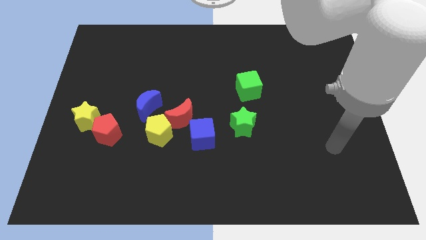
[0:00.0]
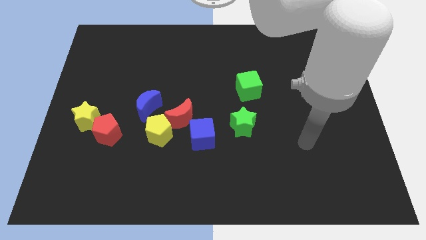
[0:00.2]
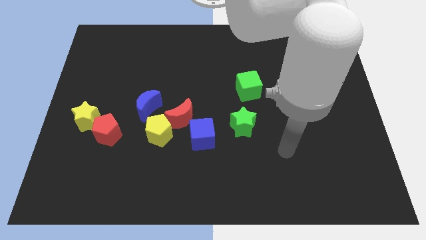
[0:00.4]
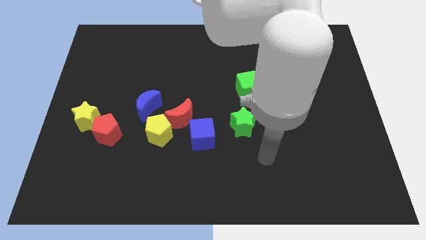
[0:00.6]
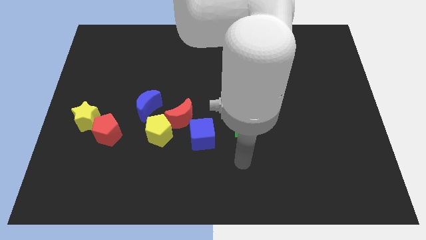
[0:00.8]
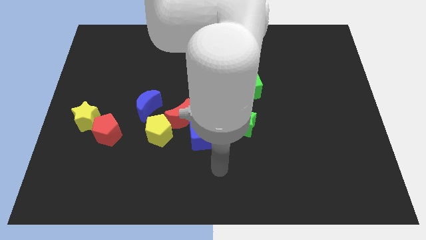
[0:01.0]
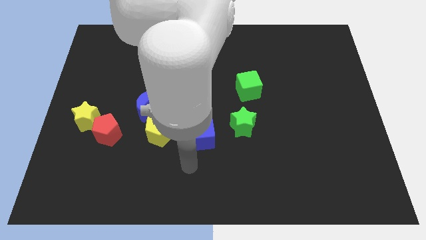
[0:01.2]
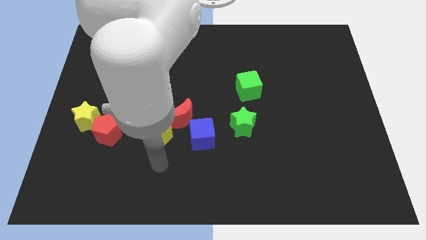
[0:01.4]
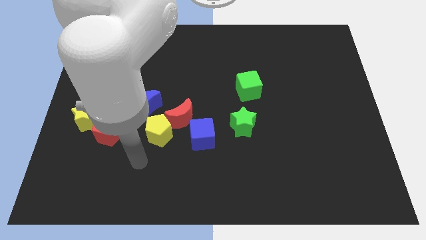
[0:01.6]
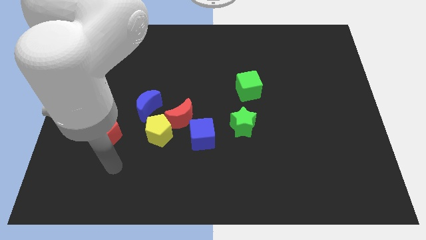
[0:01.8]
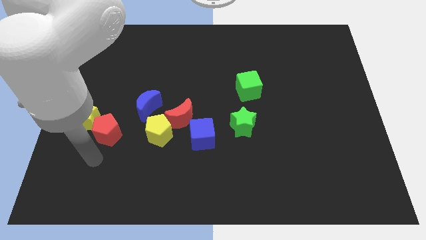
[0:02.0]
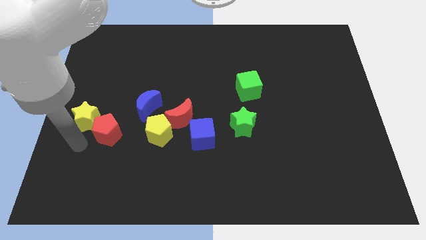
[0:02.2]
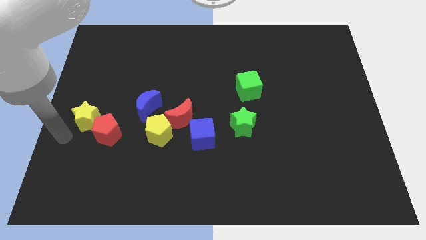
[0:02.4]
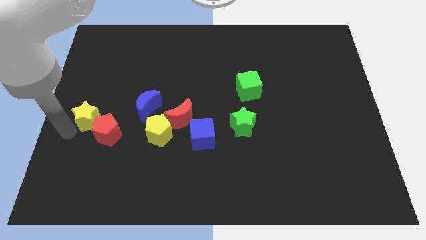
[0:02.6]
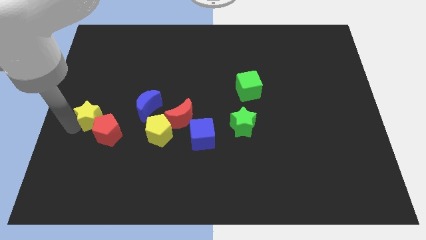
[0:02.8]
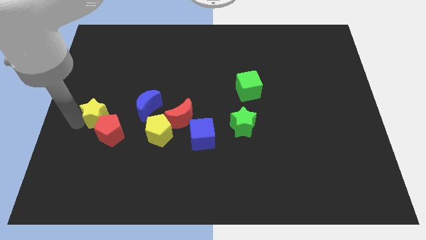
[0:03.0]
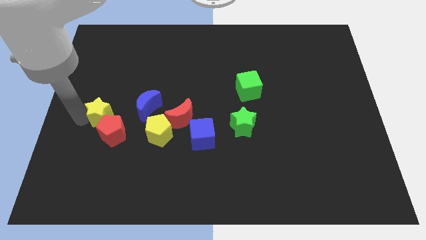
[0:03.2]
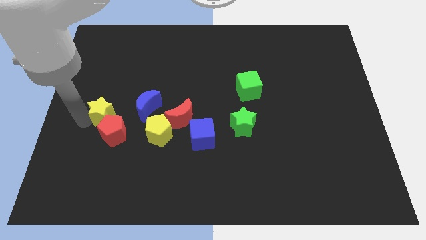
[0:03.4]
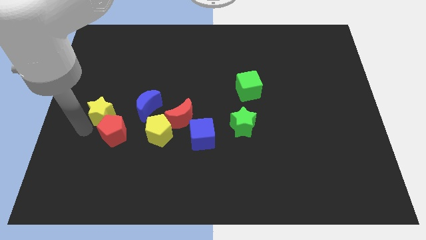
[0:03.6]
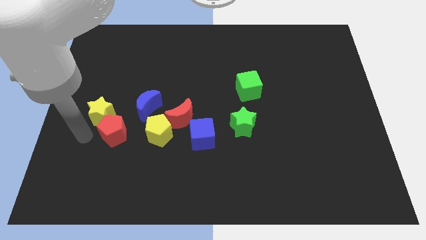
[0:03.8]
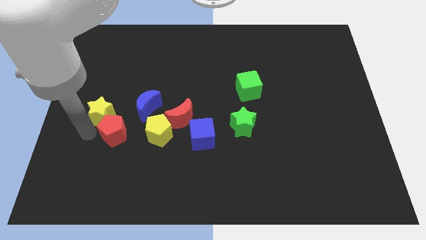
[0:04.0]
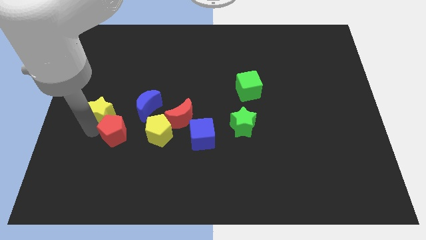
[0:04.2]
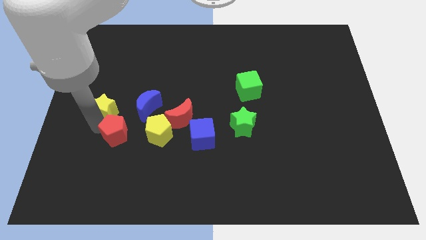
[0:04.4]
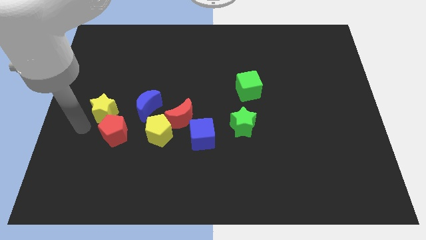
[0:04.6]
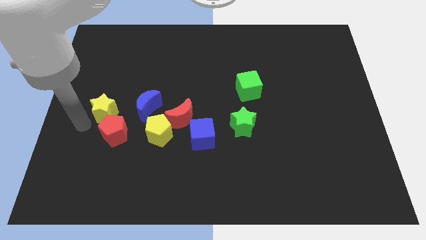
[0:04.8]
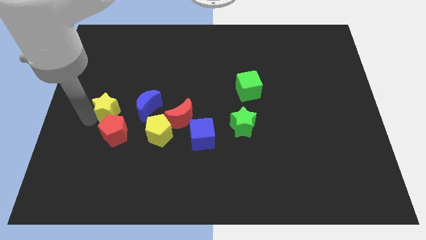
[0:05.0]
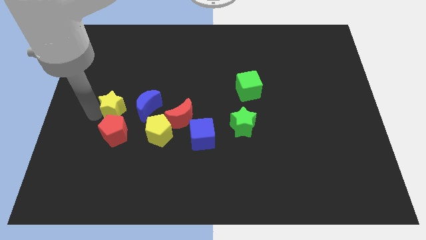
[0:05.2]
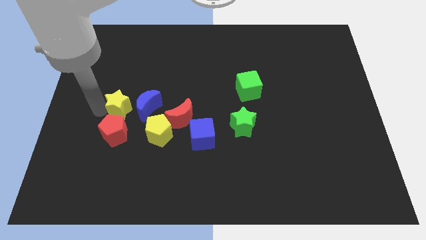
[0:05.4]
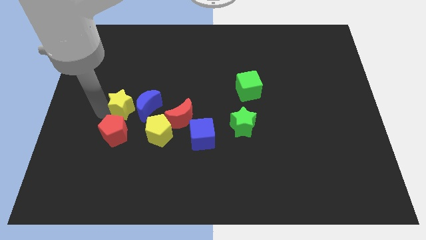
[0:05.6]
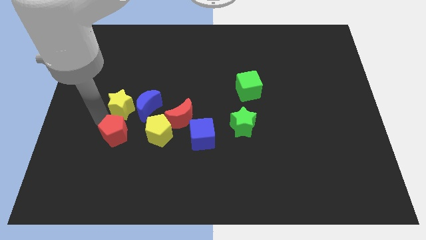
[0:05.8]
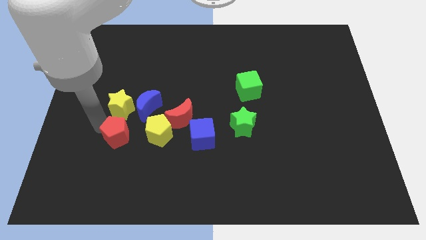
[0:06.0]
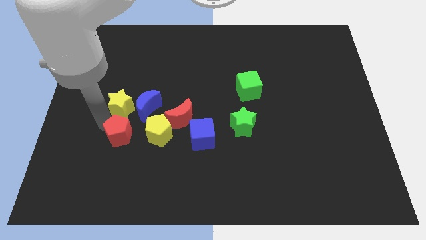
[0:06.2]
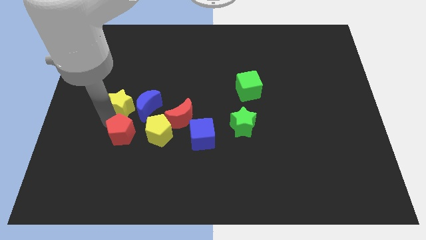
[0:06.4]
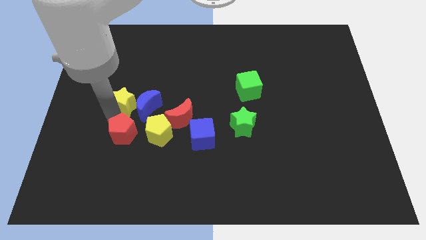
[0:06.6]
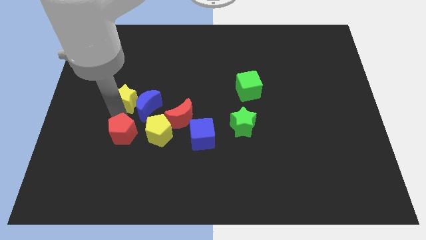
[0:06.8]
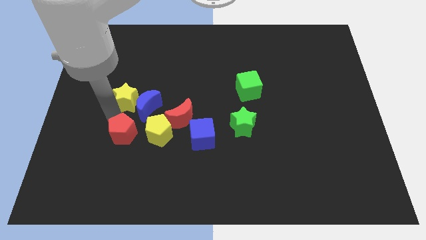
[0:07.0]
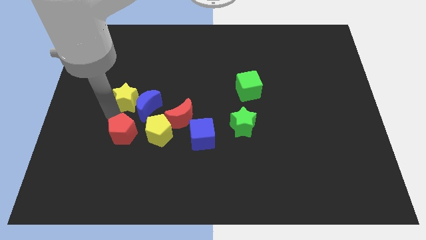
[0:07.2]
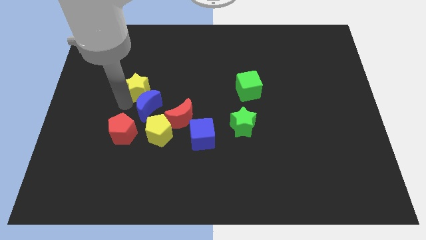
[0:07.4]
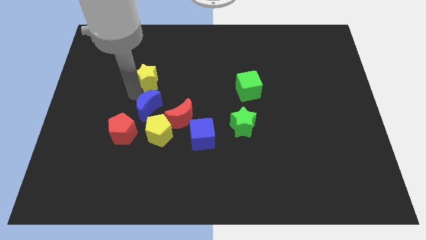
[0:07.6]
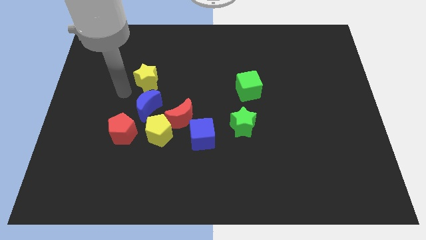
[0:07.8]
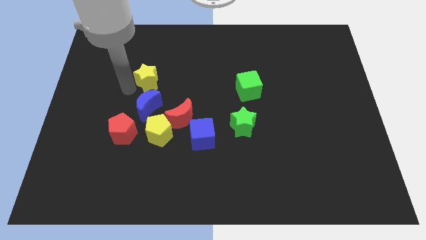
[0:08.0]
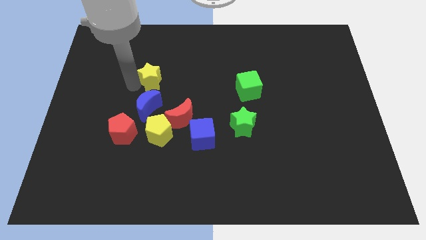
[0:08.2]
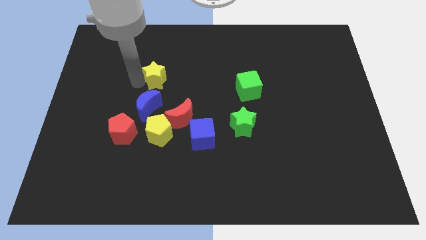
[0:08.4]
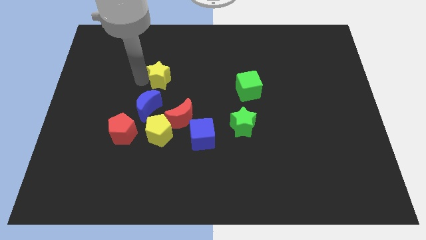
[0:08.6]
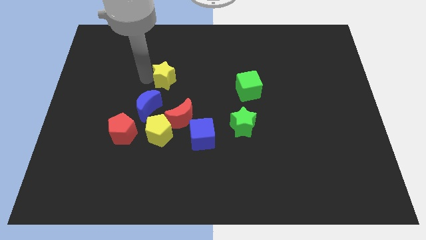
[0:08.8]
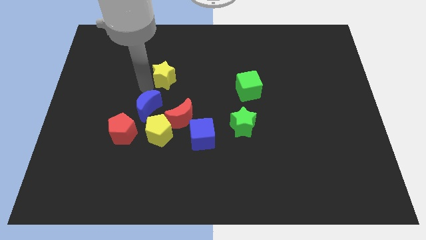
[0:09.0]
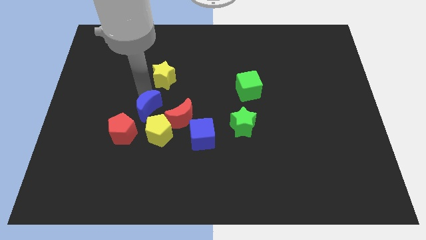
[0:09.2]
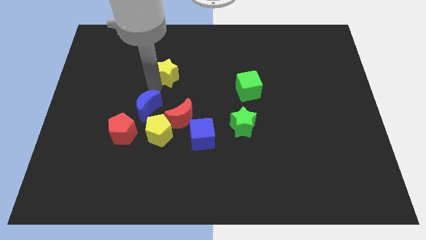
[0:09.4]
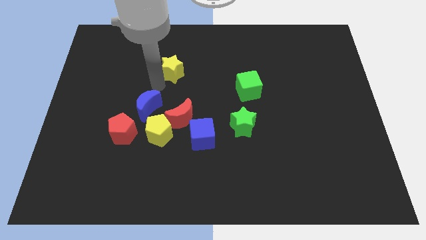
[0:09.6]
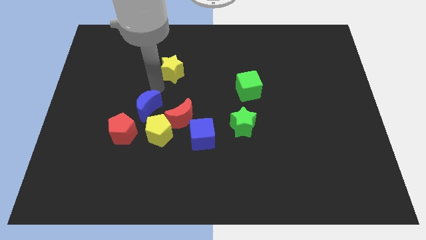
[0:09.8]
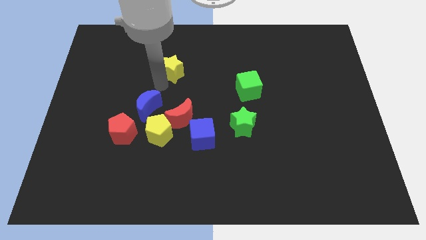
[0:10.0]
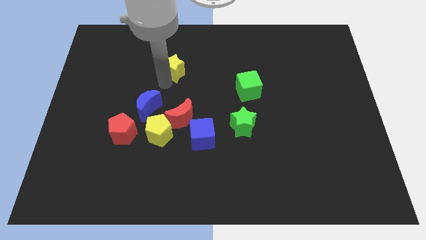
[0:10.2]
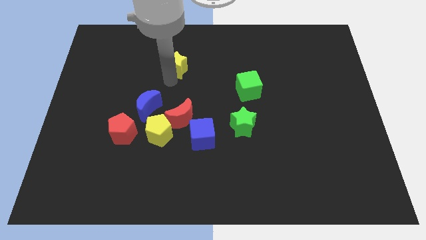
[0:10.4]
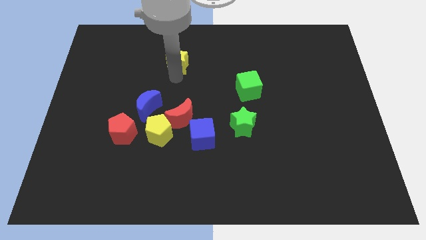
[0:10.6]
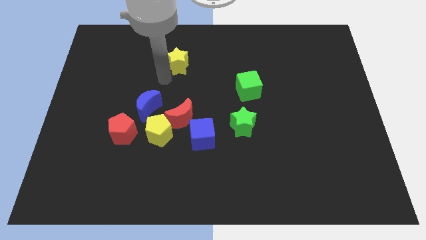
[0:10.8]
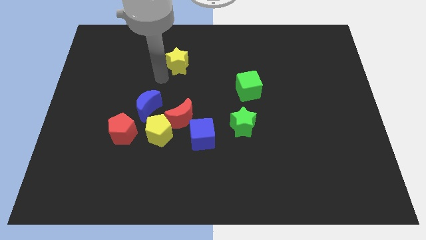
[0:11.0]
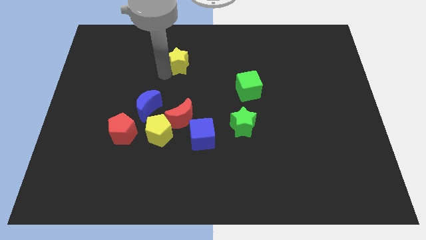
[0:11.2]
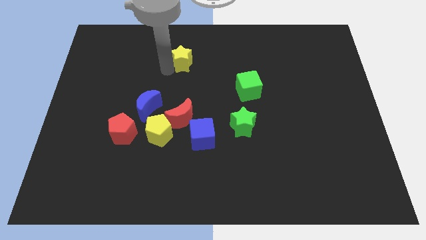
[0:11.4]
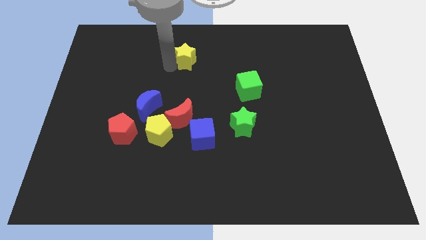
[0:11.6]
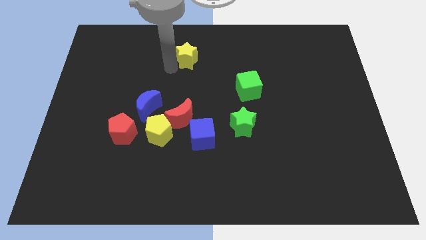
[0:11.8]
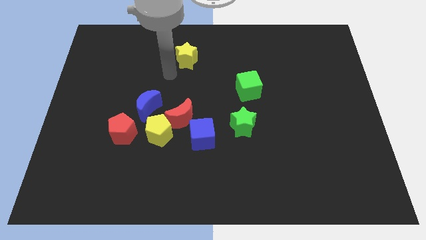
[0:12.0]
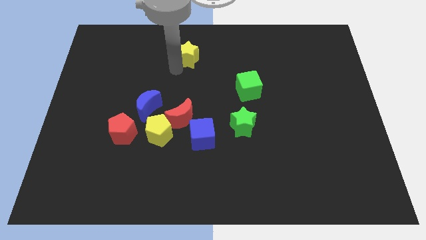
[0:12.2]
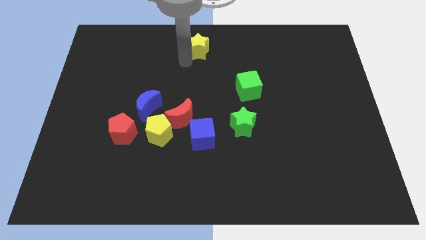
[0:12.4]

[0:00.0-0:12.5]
move the yellow star to the top side

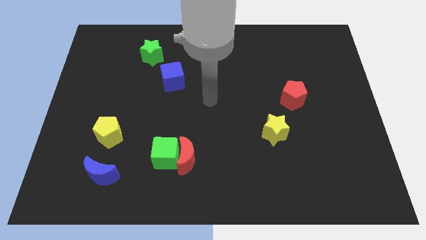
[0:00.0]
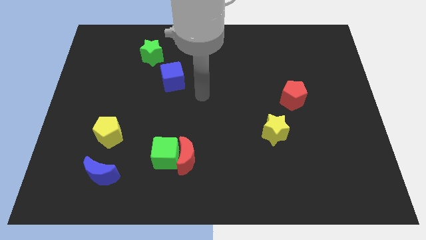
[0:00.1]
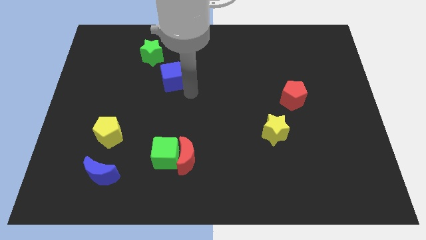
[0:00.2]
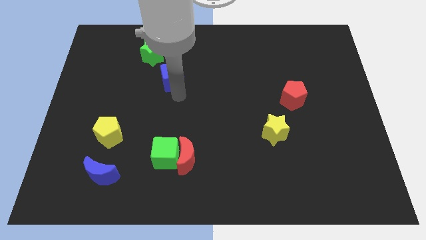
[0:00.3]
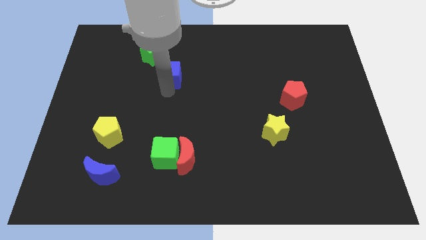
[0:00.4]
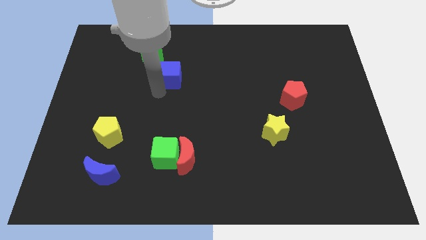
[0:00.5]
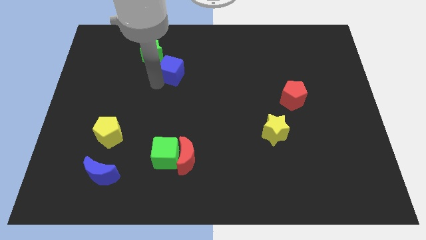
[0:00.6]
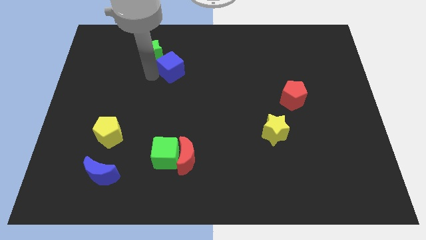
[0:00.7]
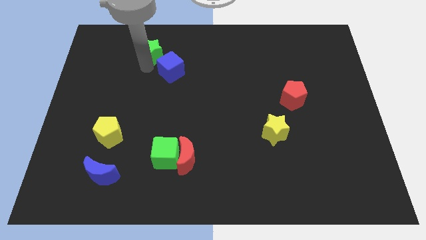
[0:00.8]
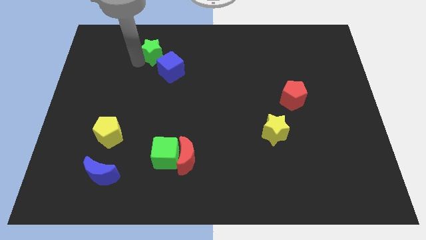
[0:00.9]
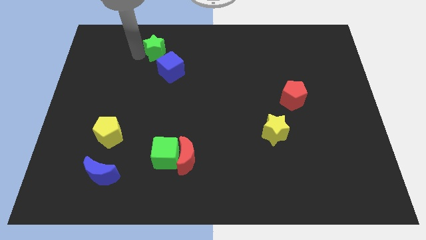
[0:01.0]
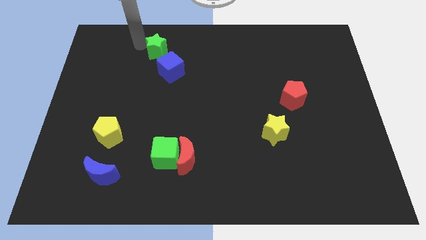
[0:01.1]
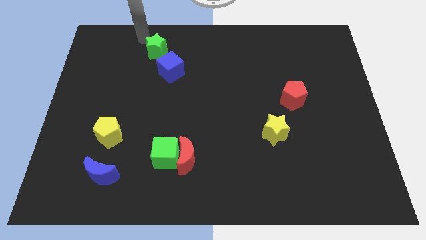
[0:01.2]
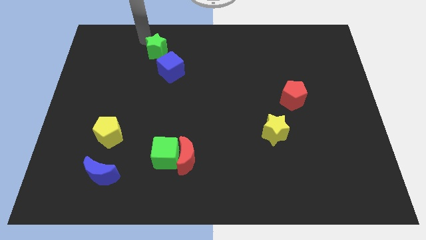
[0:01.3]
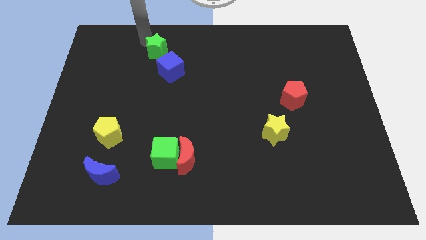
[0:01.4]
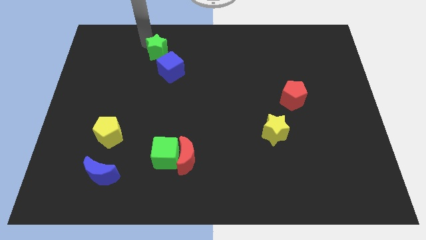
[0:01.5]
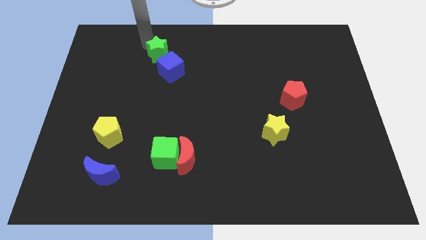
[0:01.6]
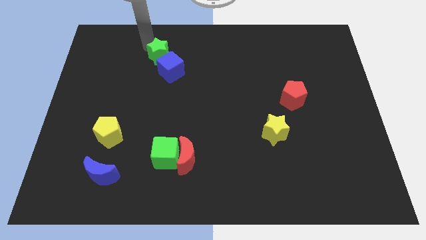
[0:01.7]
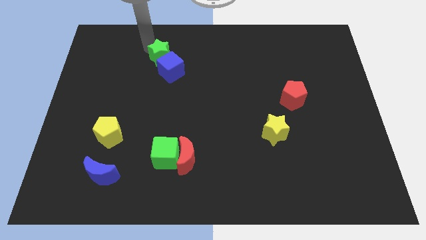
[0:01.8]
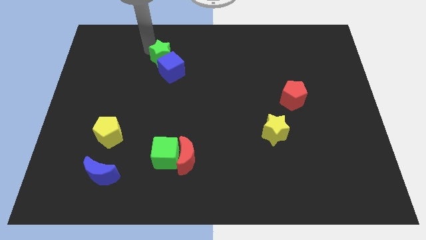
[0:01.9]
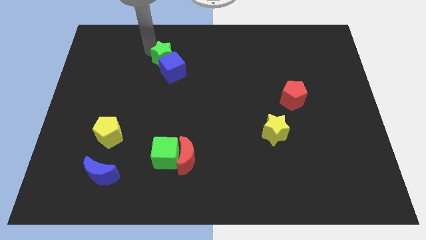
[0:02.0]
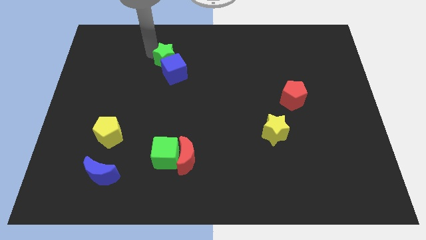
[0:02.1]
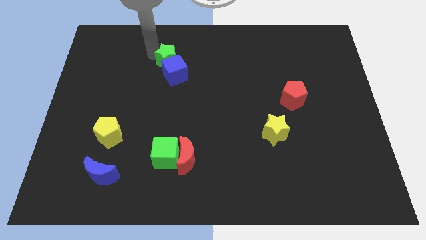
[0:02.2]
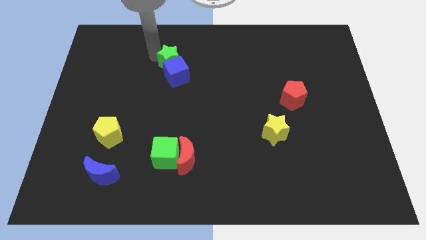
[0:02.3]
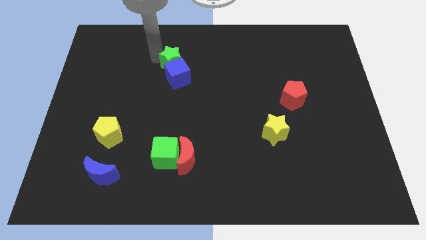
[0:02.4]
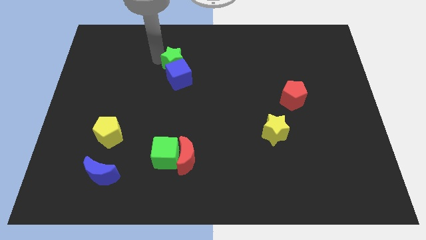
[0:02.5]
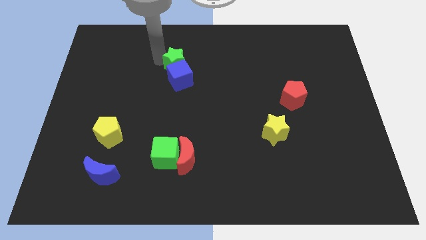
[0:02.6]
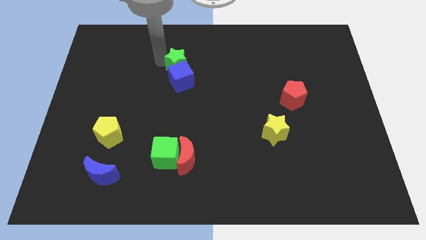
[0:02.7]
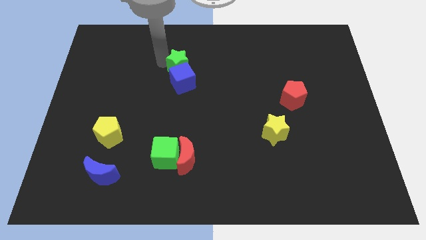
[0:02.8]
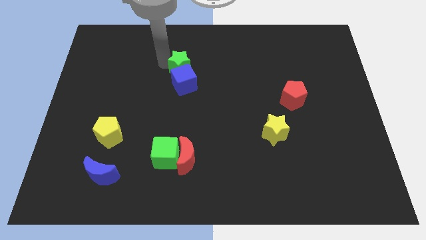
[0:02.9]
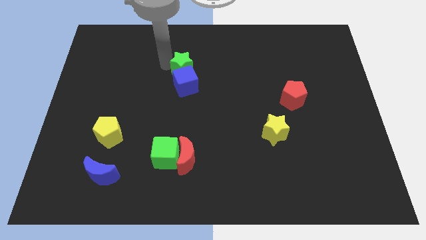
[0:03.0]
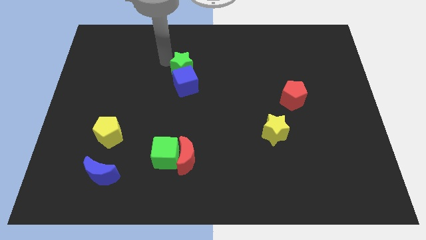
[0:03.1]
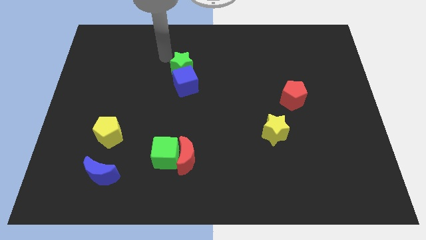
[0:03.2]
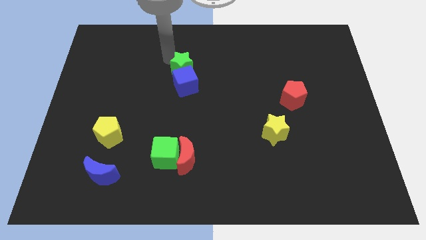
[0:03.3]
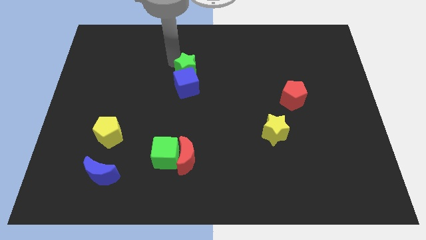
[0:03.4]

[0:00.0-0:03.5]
push the green star to the middle
